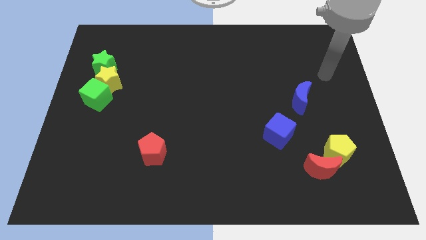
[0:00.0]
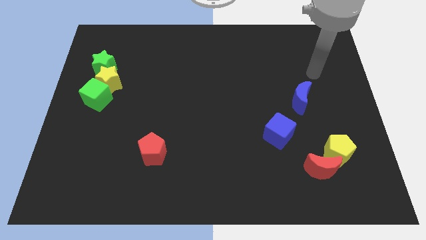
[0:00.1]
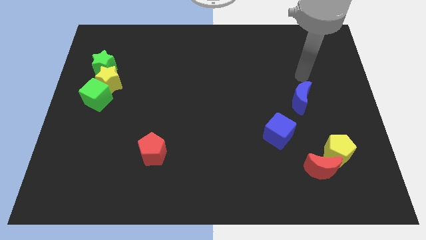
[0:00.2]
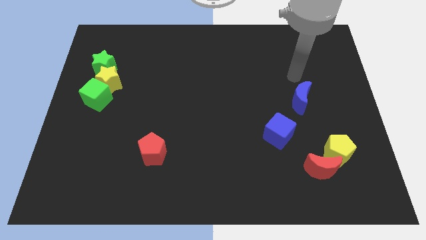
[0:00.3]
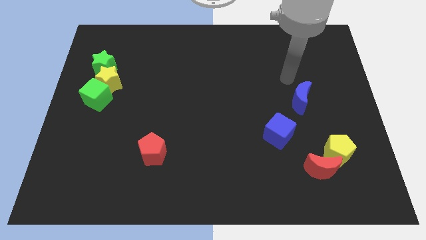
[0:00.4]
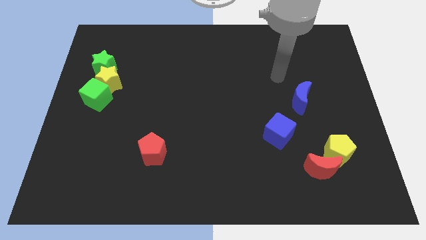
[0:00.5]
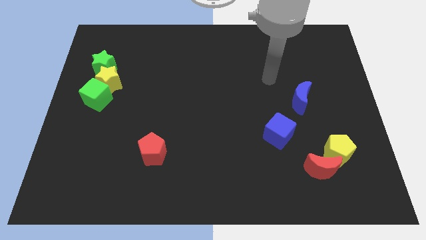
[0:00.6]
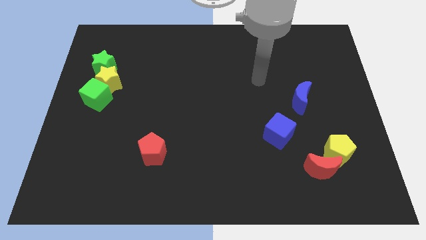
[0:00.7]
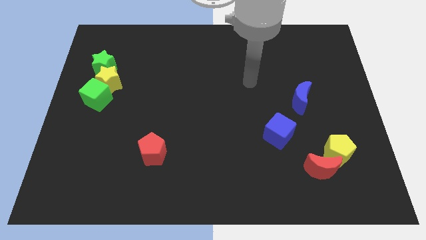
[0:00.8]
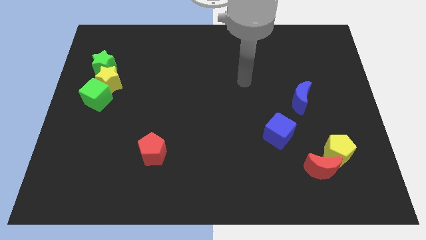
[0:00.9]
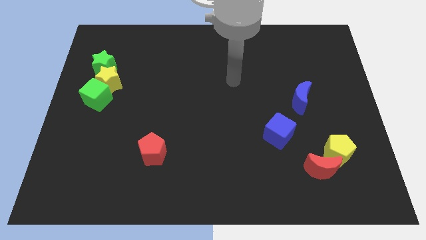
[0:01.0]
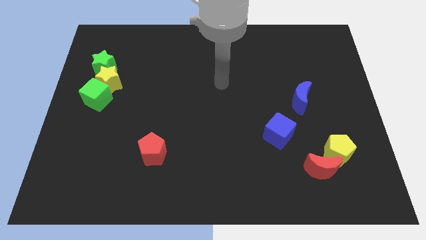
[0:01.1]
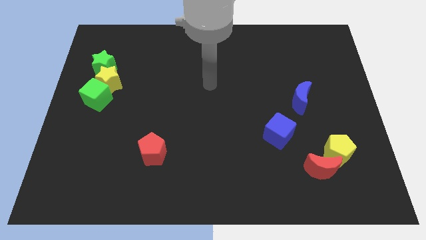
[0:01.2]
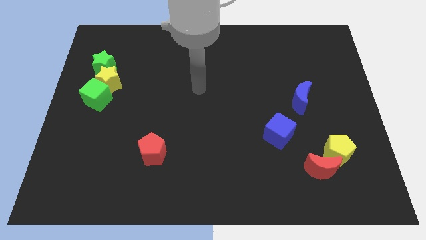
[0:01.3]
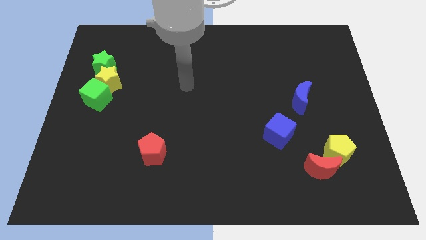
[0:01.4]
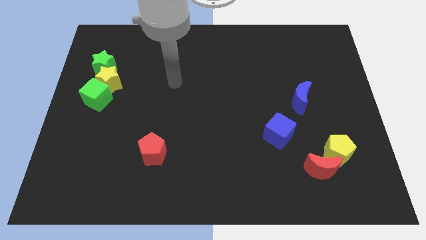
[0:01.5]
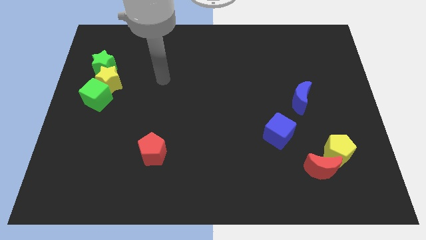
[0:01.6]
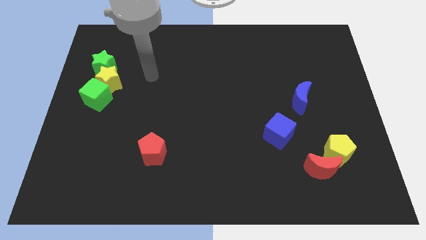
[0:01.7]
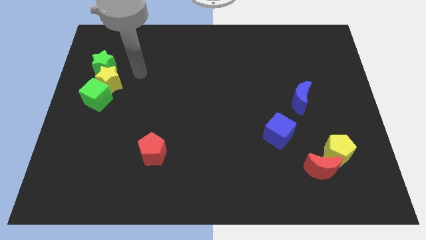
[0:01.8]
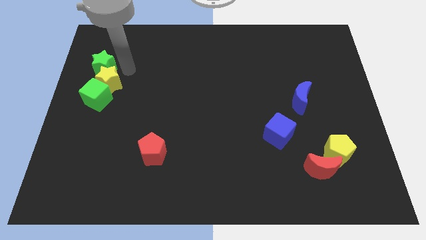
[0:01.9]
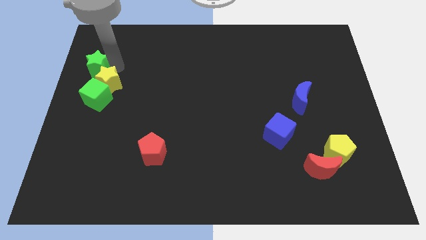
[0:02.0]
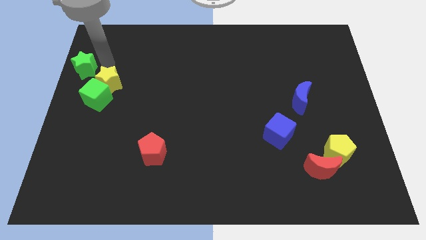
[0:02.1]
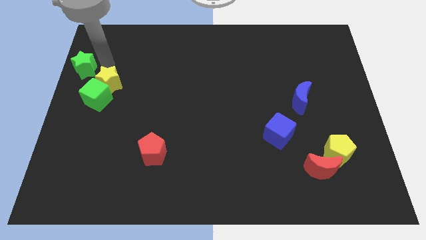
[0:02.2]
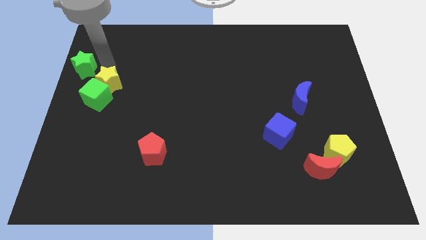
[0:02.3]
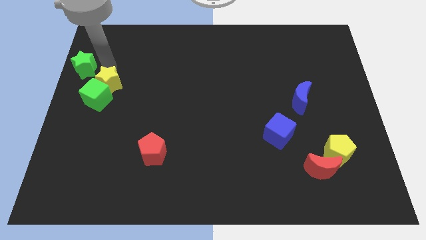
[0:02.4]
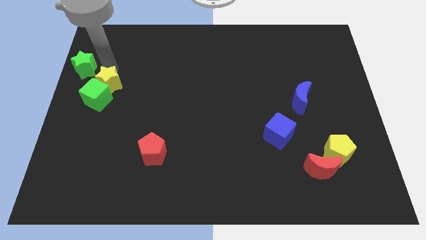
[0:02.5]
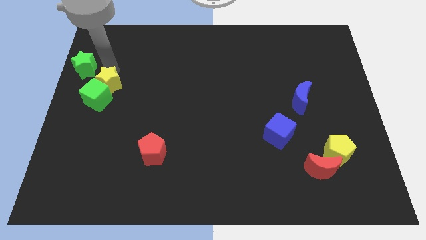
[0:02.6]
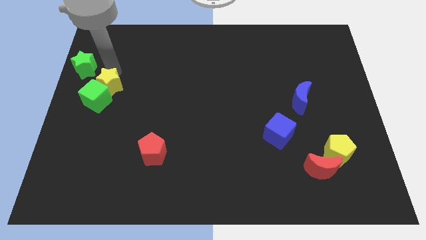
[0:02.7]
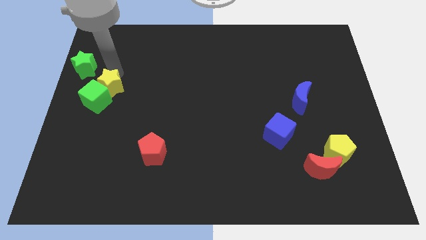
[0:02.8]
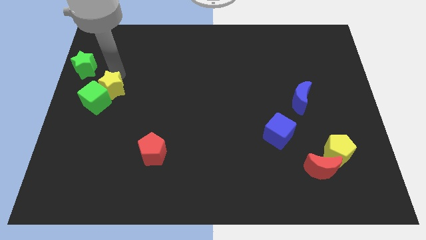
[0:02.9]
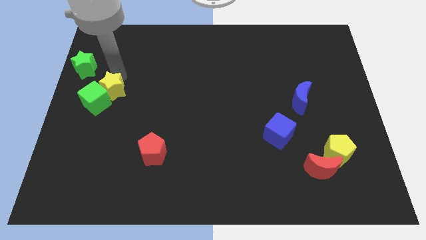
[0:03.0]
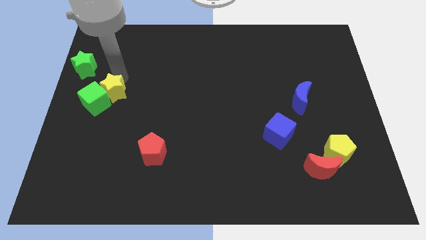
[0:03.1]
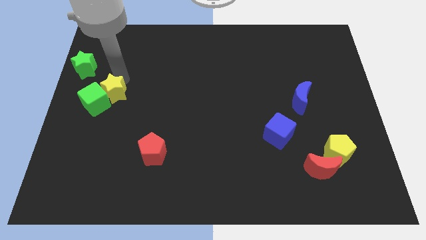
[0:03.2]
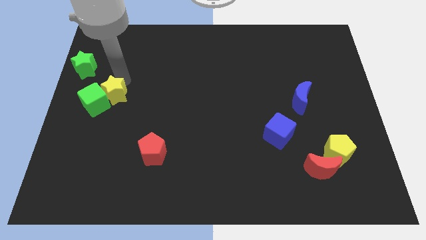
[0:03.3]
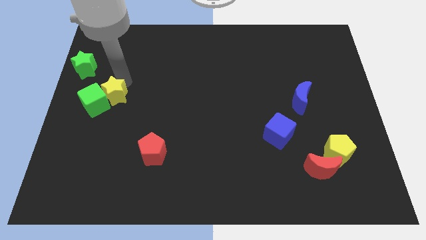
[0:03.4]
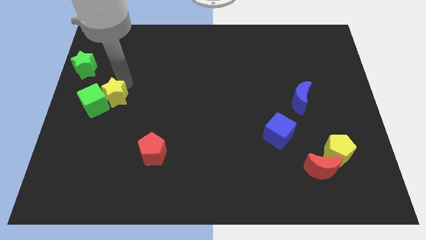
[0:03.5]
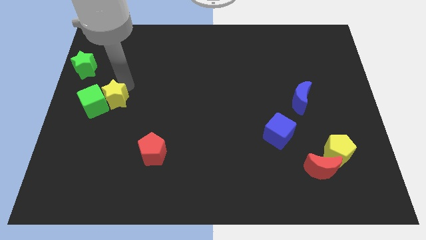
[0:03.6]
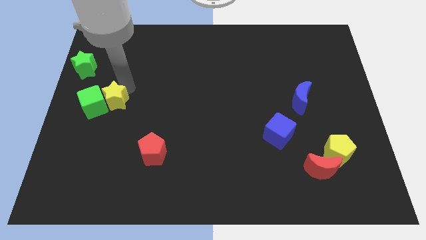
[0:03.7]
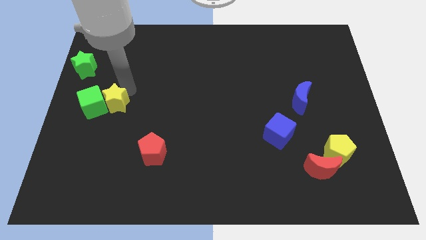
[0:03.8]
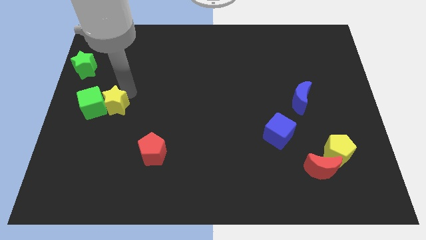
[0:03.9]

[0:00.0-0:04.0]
slightly slide the yellow star down

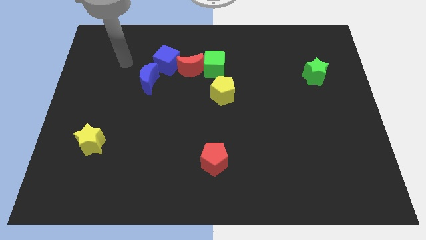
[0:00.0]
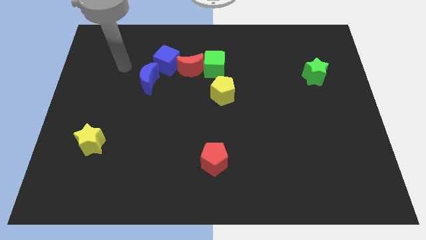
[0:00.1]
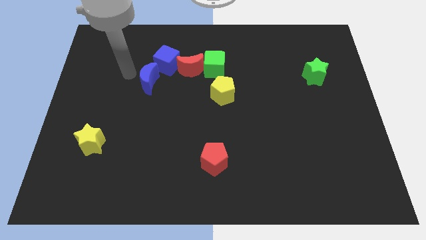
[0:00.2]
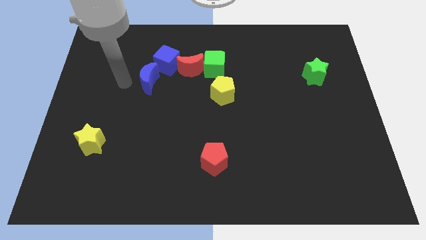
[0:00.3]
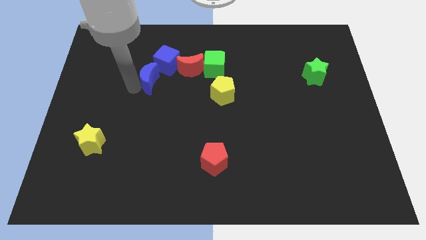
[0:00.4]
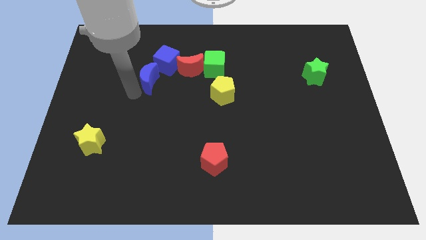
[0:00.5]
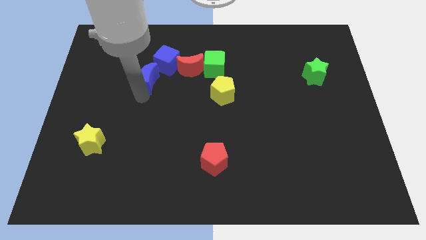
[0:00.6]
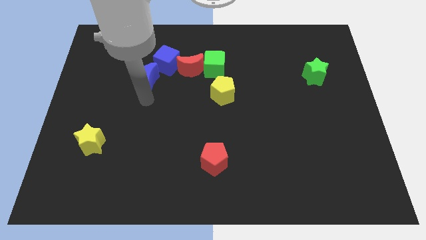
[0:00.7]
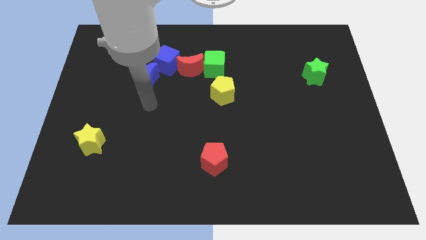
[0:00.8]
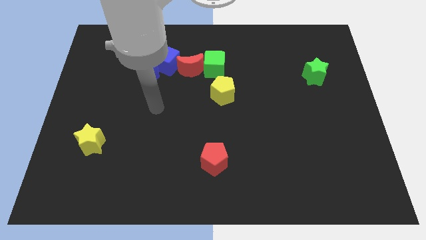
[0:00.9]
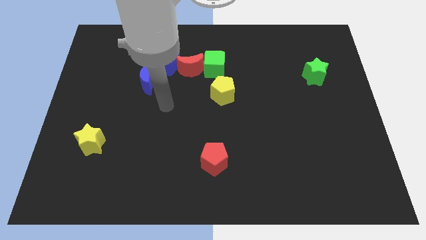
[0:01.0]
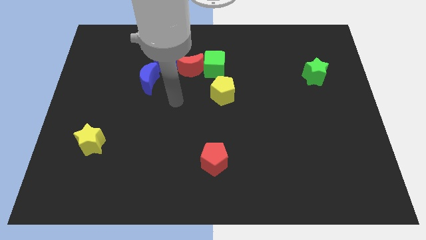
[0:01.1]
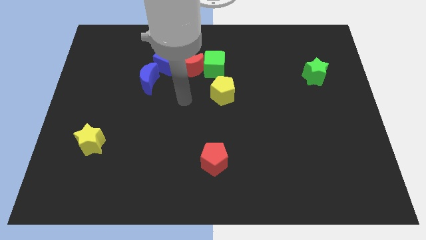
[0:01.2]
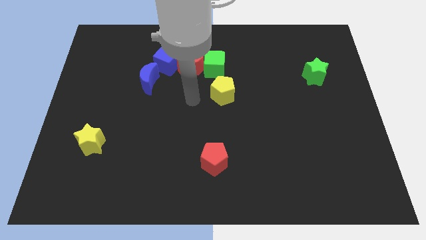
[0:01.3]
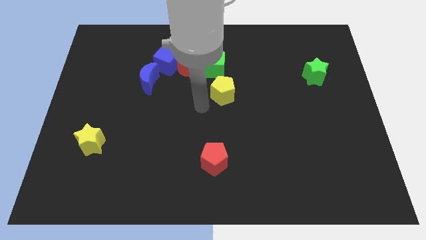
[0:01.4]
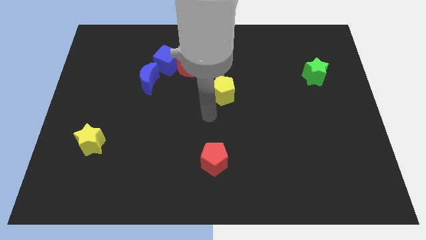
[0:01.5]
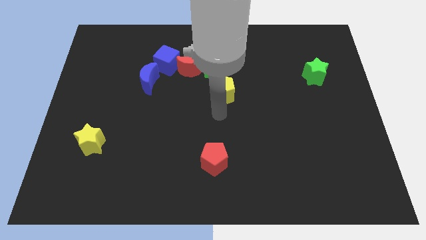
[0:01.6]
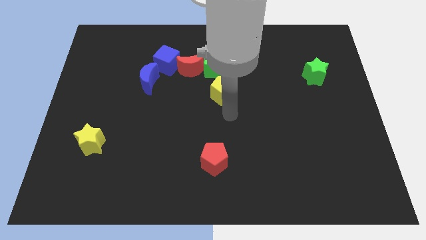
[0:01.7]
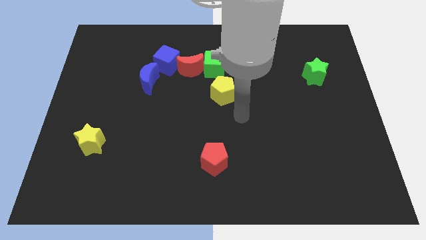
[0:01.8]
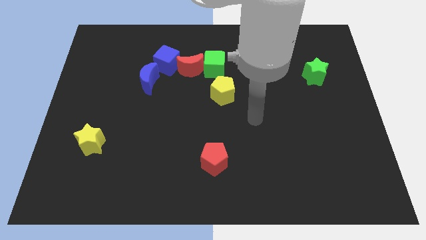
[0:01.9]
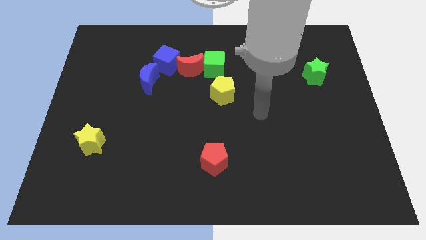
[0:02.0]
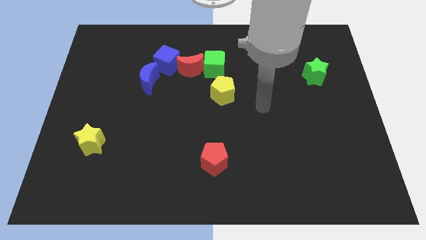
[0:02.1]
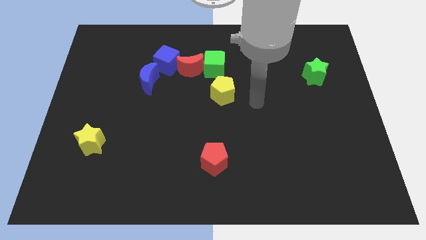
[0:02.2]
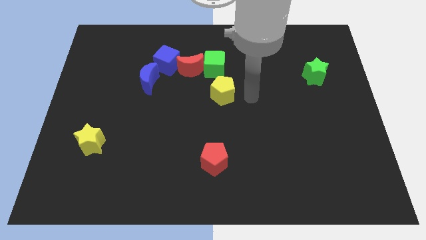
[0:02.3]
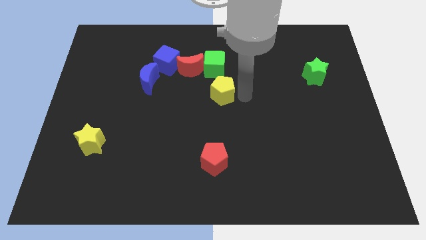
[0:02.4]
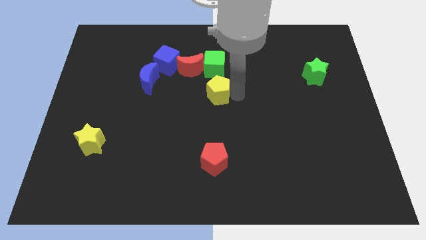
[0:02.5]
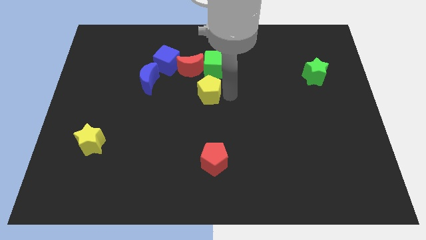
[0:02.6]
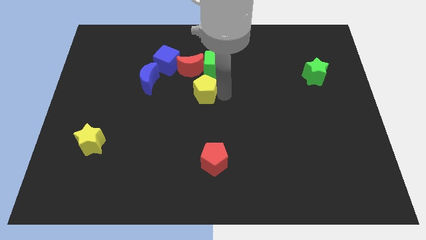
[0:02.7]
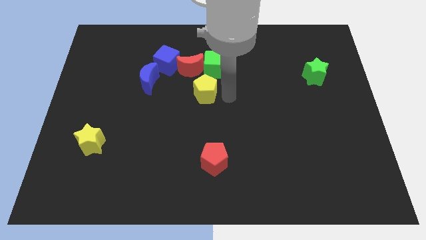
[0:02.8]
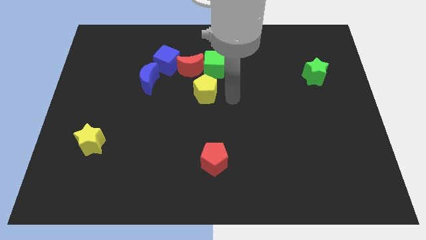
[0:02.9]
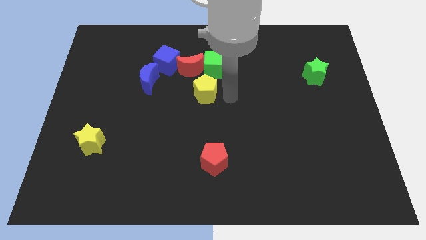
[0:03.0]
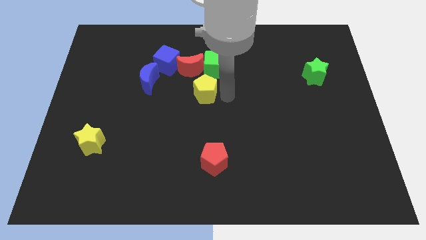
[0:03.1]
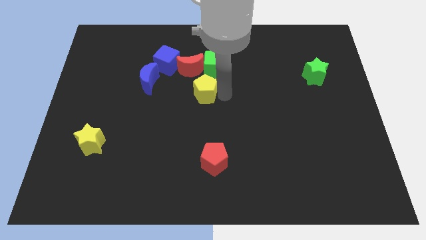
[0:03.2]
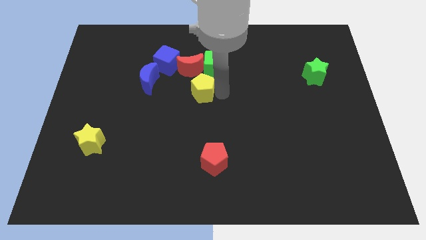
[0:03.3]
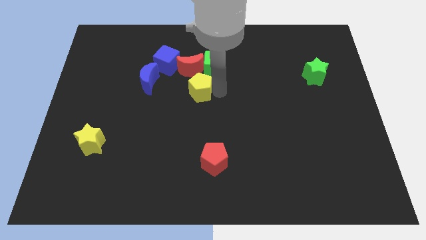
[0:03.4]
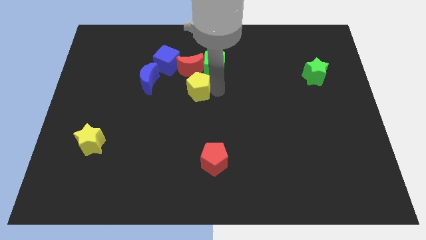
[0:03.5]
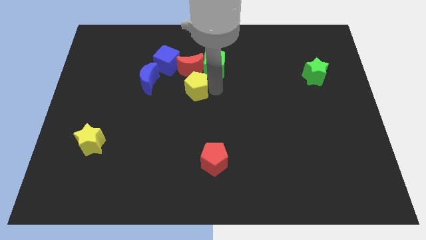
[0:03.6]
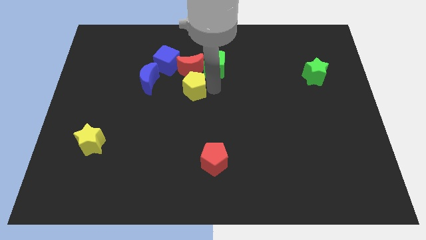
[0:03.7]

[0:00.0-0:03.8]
move the yellow pentagon a little left
